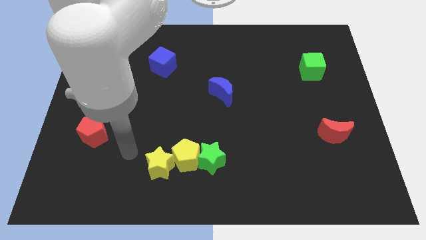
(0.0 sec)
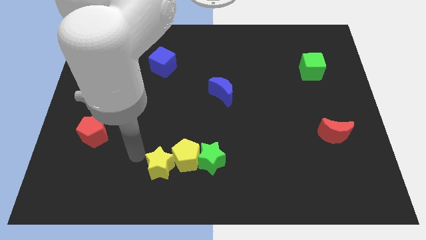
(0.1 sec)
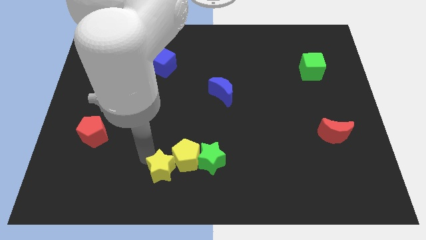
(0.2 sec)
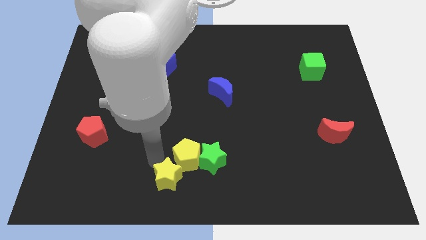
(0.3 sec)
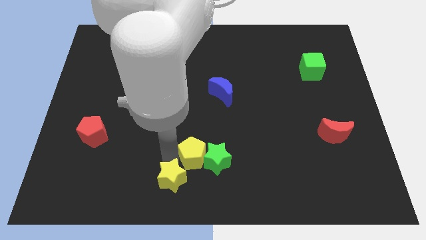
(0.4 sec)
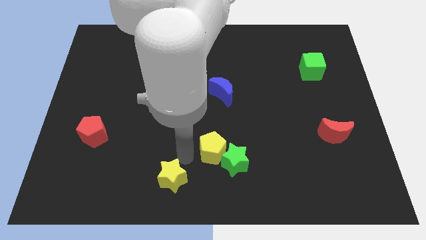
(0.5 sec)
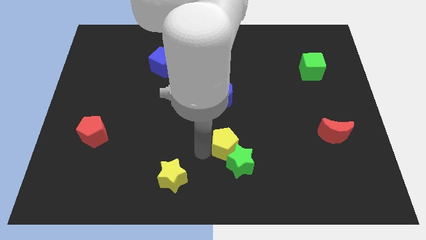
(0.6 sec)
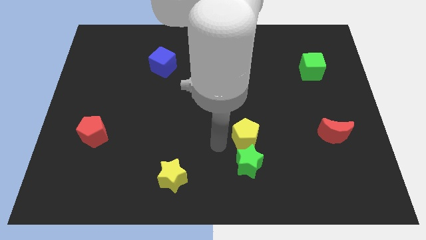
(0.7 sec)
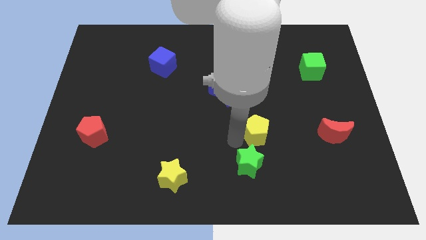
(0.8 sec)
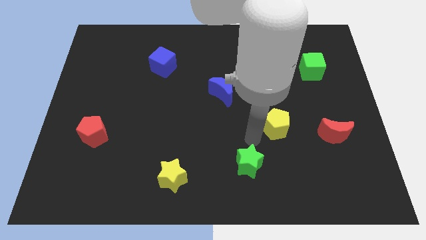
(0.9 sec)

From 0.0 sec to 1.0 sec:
move the green star away from the yellow pentagon

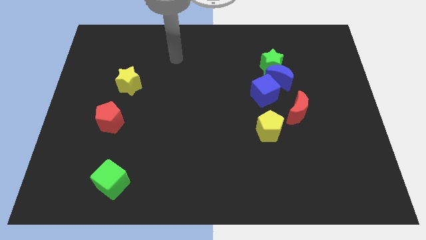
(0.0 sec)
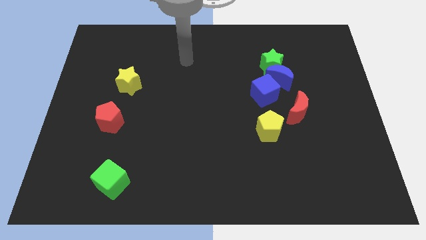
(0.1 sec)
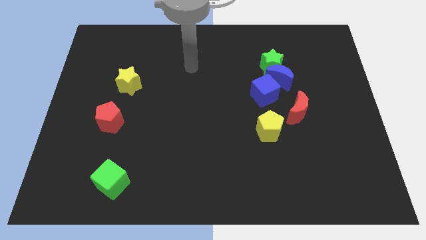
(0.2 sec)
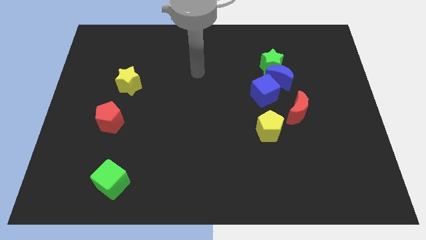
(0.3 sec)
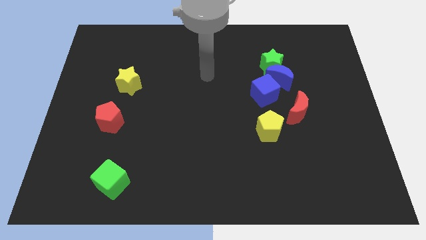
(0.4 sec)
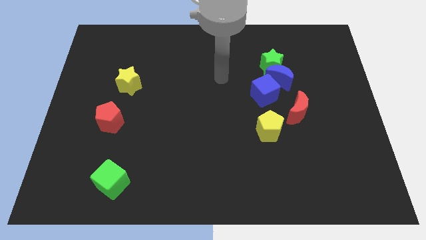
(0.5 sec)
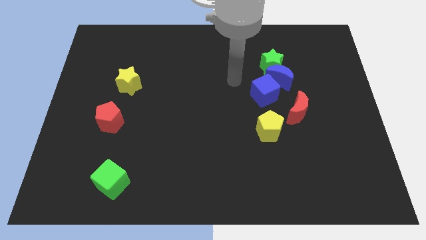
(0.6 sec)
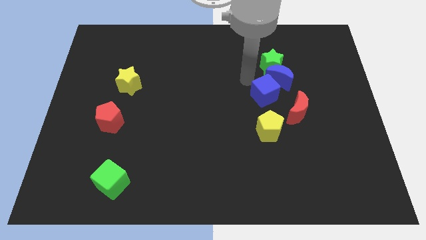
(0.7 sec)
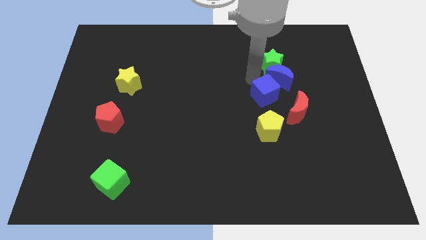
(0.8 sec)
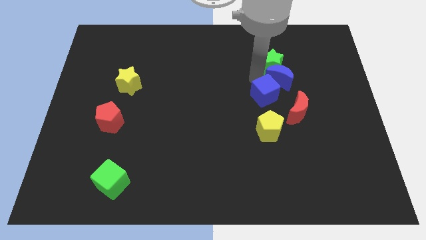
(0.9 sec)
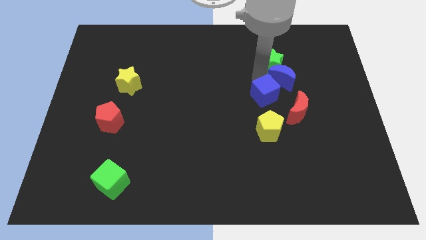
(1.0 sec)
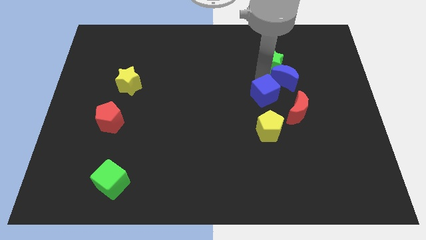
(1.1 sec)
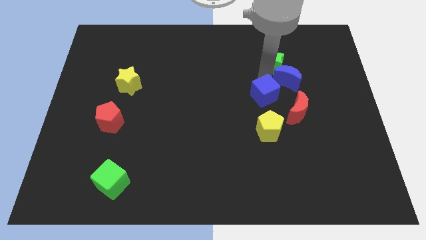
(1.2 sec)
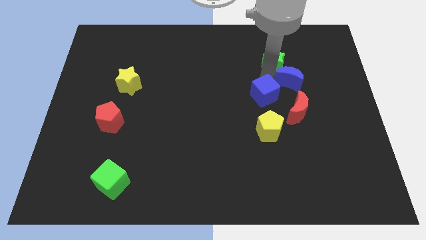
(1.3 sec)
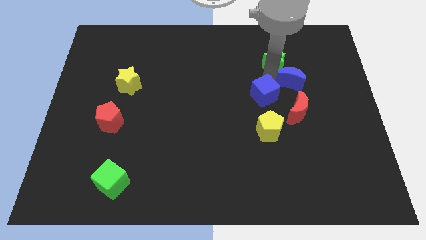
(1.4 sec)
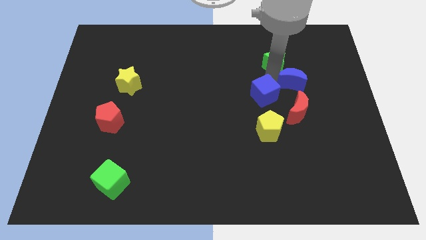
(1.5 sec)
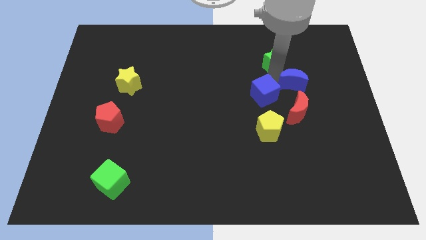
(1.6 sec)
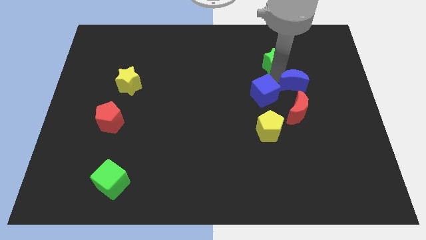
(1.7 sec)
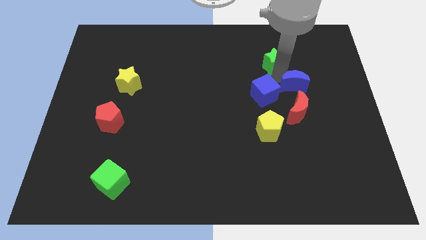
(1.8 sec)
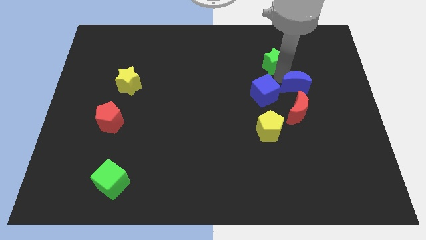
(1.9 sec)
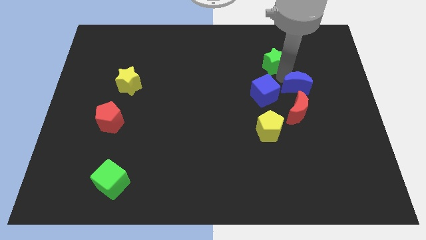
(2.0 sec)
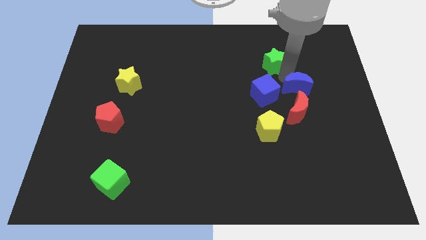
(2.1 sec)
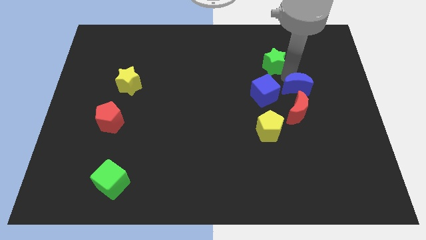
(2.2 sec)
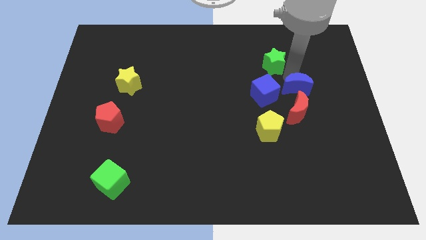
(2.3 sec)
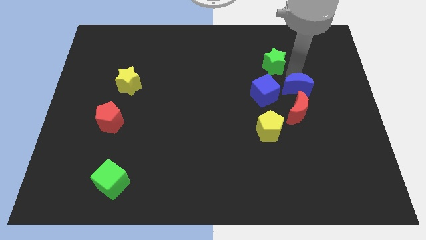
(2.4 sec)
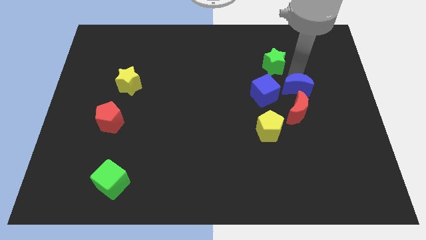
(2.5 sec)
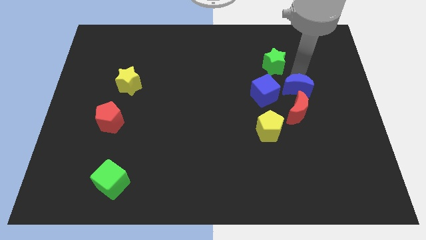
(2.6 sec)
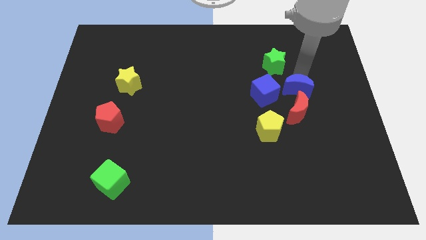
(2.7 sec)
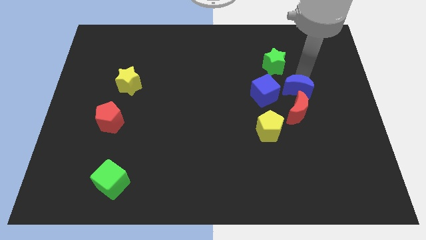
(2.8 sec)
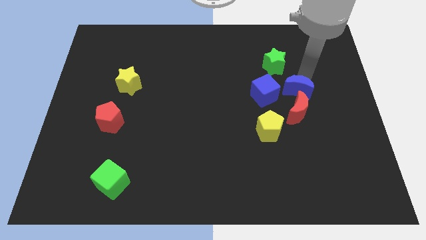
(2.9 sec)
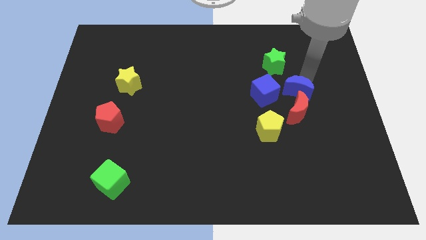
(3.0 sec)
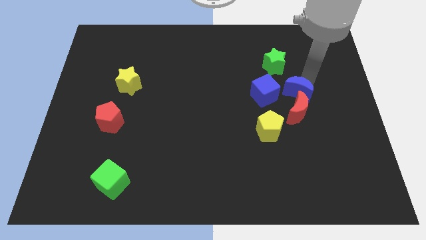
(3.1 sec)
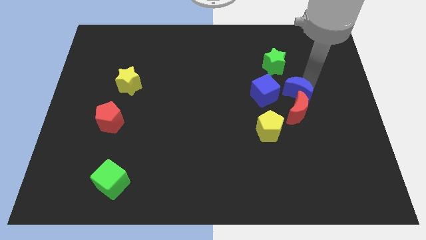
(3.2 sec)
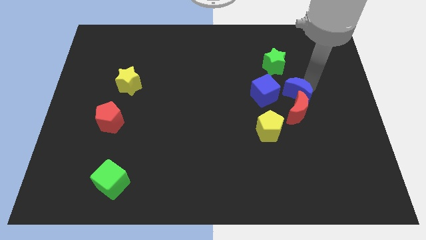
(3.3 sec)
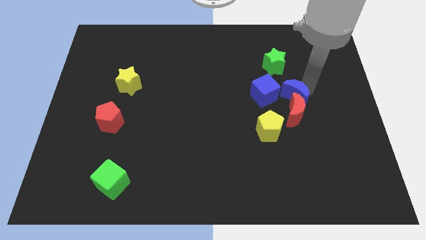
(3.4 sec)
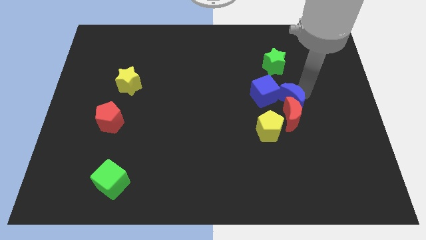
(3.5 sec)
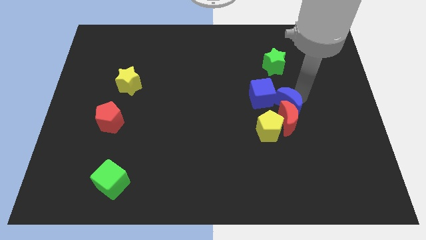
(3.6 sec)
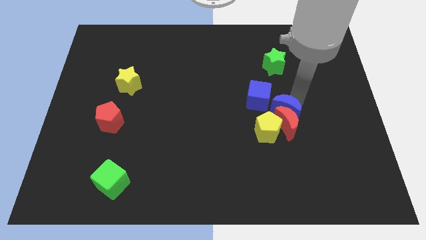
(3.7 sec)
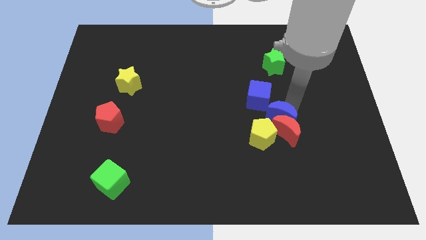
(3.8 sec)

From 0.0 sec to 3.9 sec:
move the blue moon away from the green star and blue cube

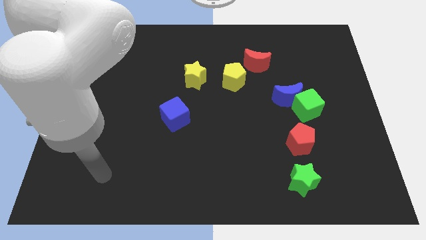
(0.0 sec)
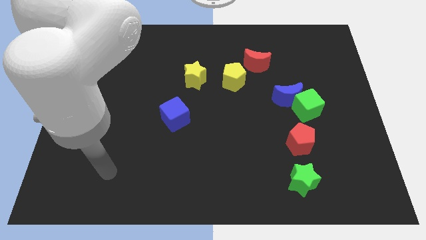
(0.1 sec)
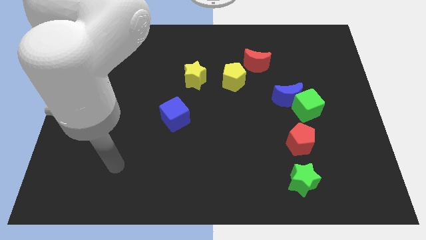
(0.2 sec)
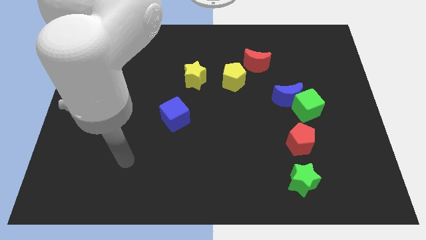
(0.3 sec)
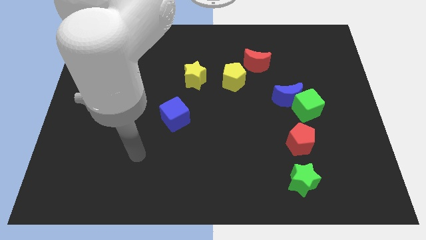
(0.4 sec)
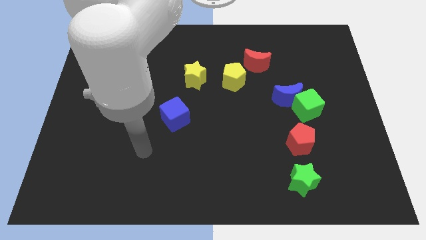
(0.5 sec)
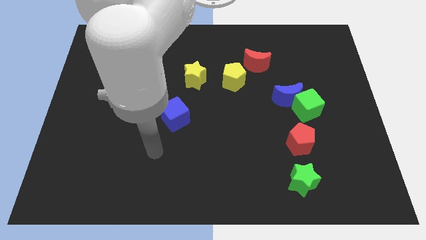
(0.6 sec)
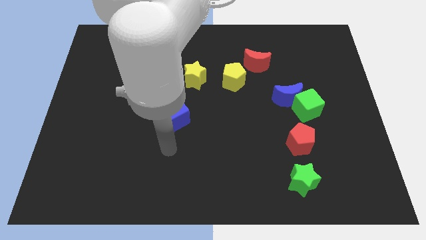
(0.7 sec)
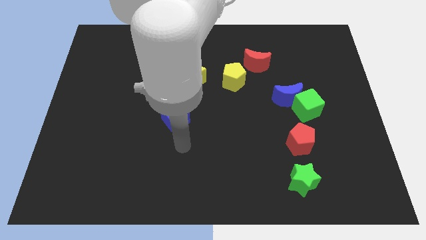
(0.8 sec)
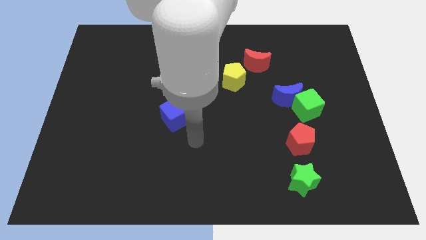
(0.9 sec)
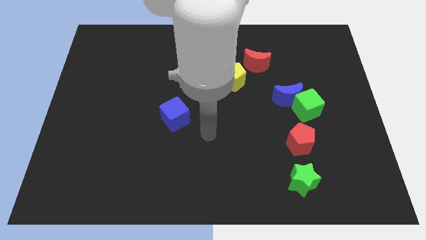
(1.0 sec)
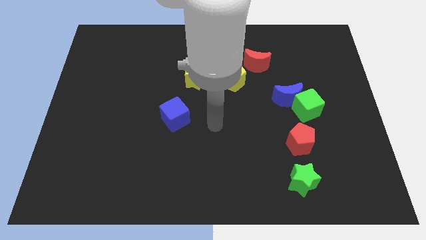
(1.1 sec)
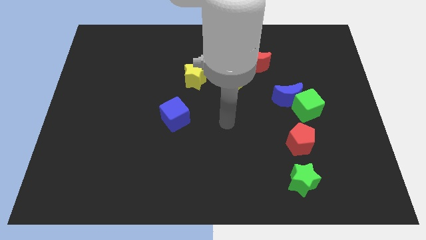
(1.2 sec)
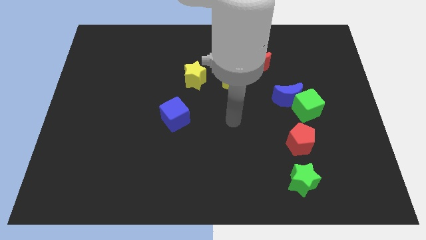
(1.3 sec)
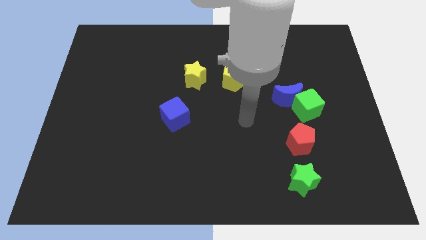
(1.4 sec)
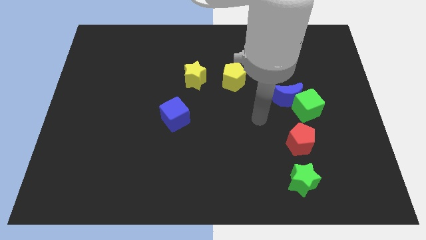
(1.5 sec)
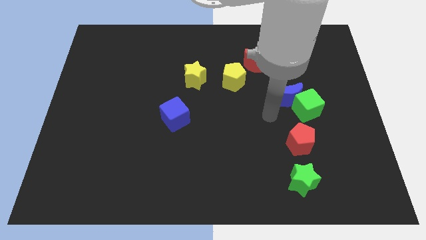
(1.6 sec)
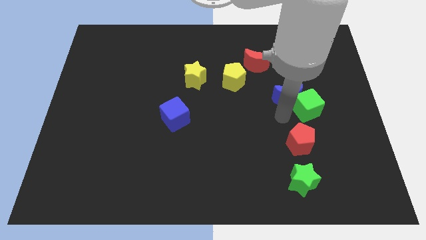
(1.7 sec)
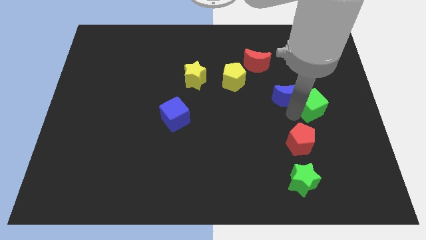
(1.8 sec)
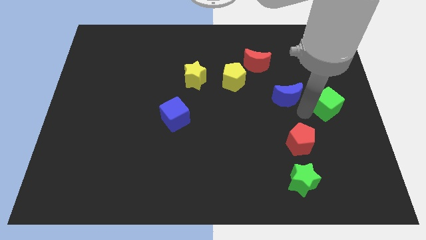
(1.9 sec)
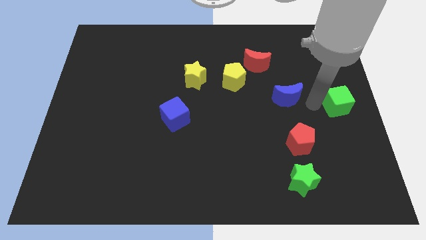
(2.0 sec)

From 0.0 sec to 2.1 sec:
pull the blue moon apart from the green cube

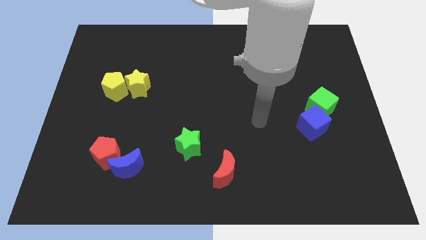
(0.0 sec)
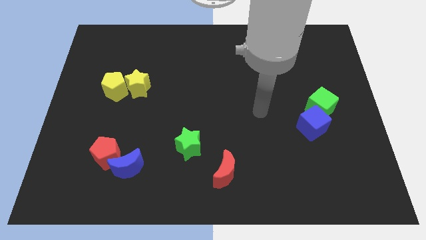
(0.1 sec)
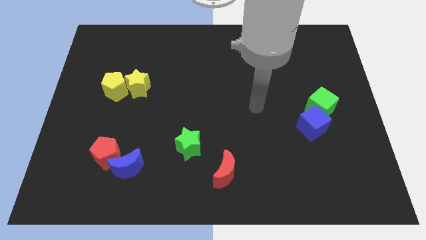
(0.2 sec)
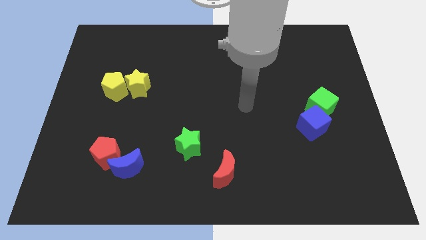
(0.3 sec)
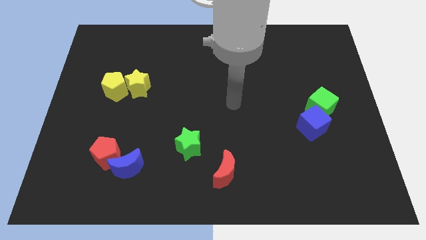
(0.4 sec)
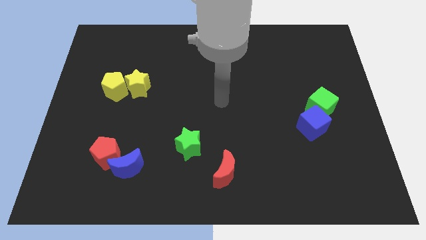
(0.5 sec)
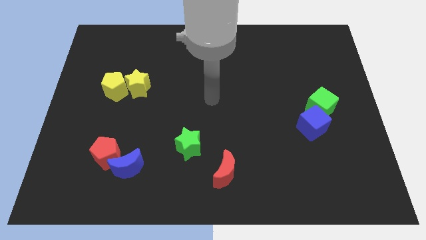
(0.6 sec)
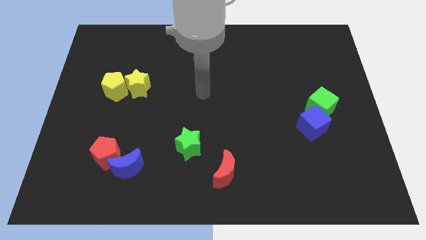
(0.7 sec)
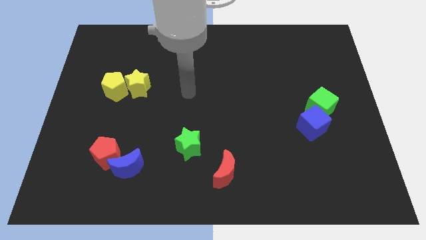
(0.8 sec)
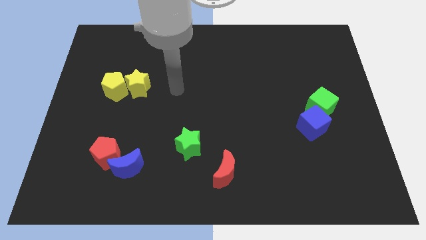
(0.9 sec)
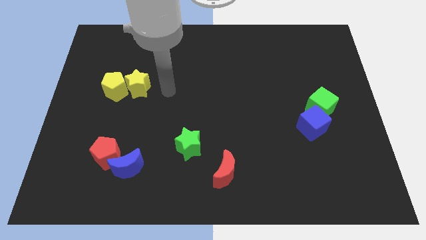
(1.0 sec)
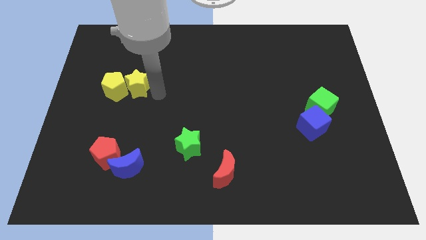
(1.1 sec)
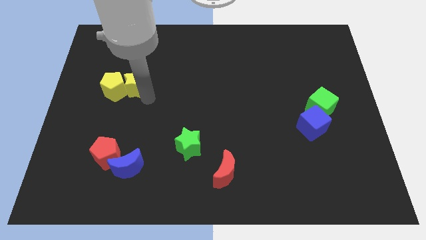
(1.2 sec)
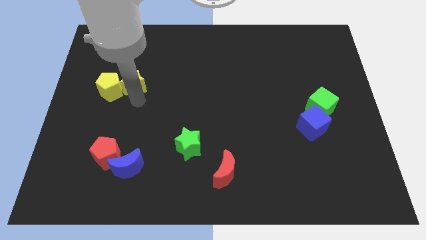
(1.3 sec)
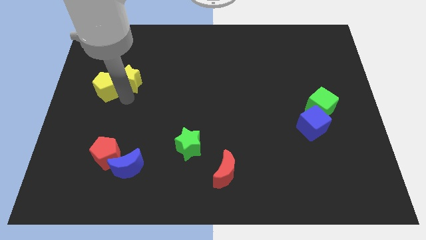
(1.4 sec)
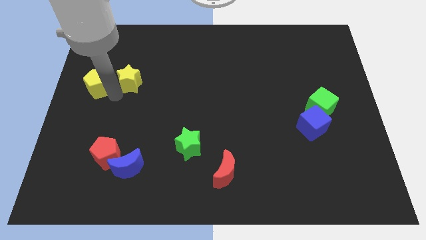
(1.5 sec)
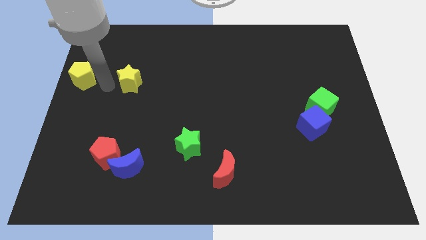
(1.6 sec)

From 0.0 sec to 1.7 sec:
separate the yellow star from the yellow pentagon

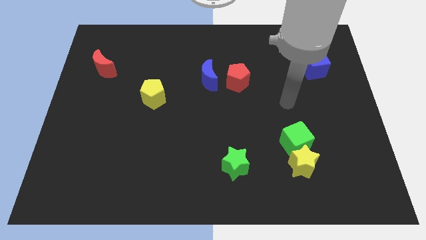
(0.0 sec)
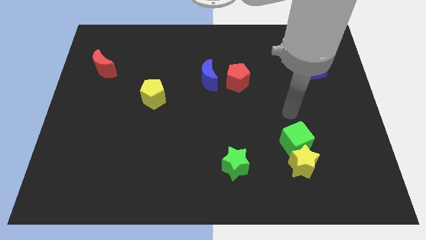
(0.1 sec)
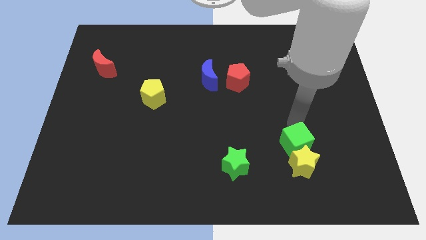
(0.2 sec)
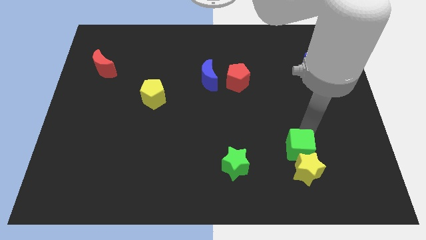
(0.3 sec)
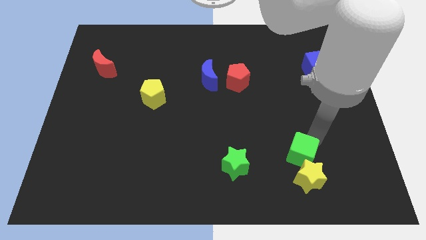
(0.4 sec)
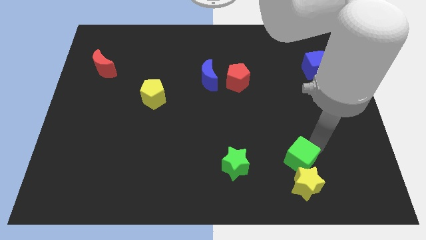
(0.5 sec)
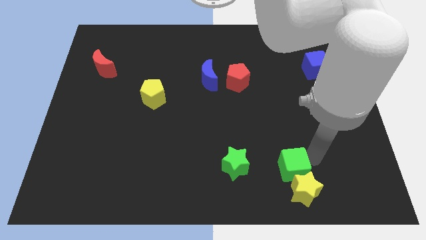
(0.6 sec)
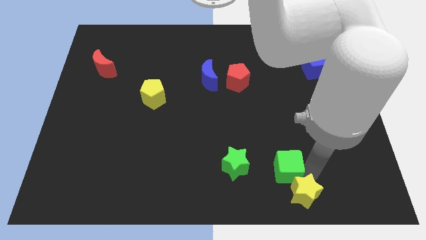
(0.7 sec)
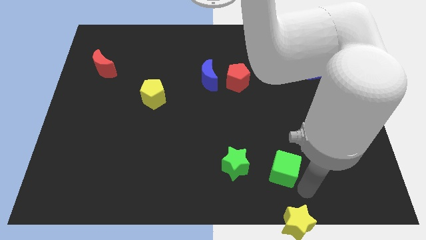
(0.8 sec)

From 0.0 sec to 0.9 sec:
move the green cube away from the yellow star
